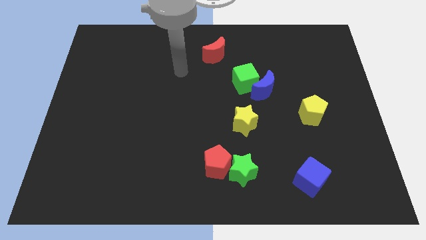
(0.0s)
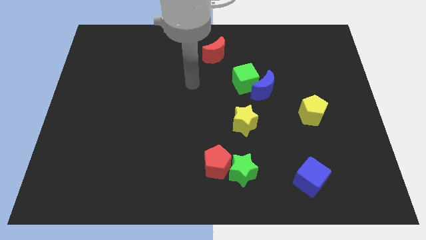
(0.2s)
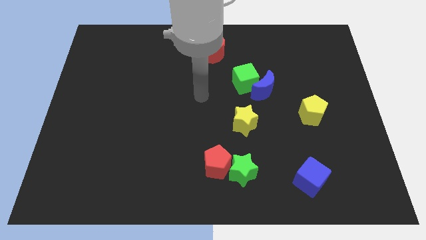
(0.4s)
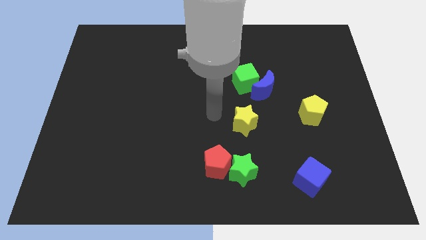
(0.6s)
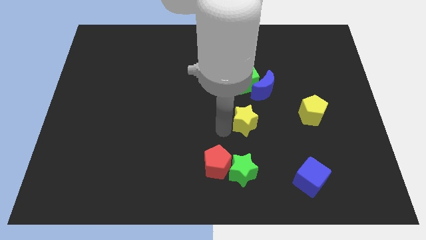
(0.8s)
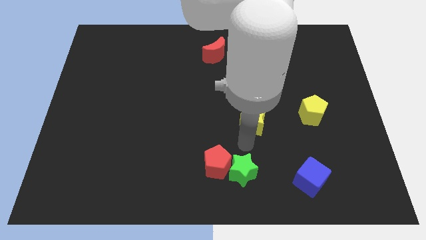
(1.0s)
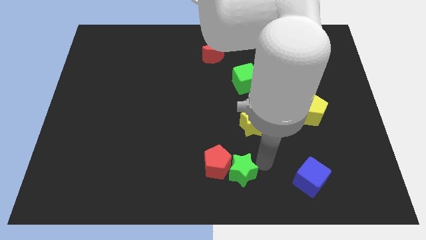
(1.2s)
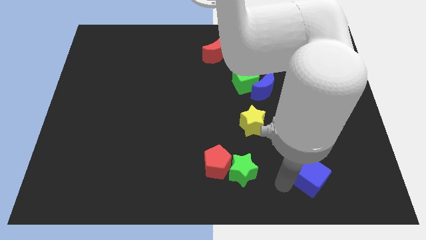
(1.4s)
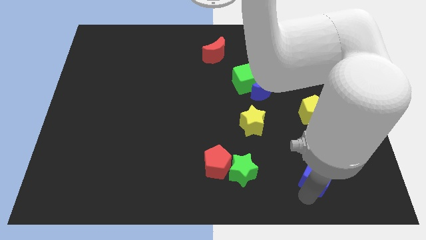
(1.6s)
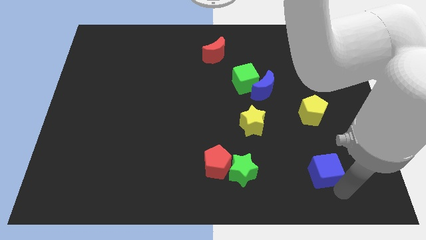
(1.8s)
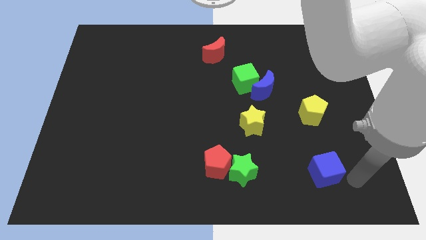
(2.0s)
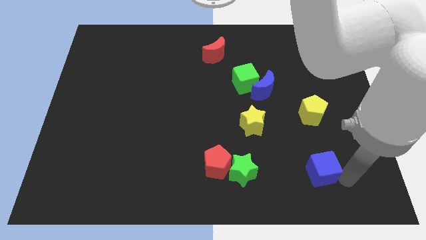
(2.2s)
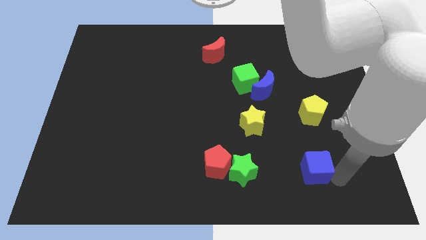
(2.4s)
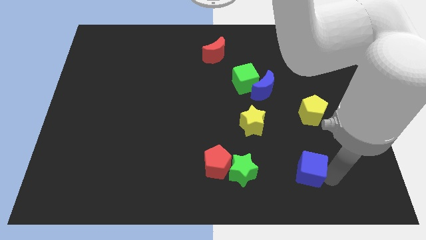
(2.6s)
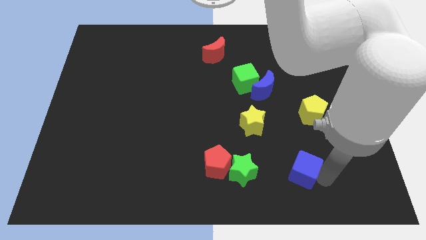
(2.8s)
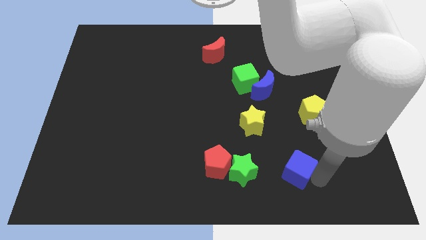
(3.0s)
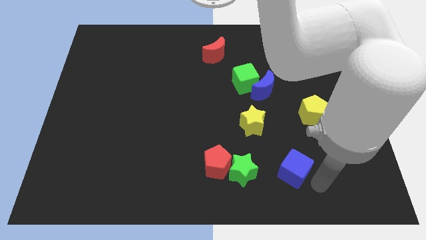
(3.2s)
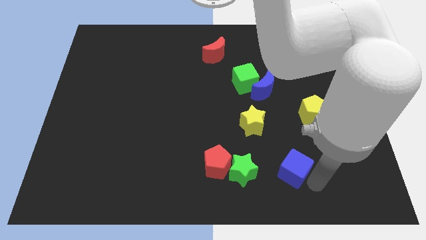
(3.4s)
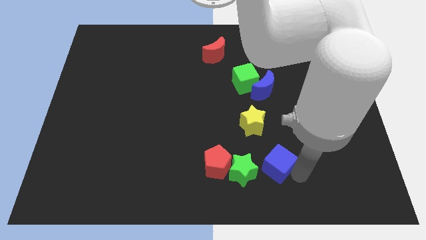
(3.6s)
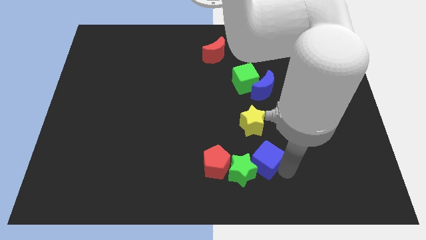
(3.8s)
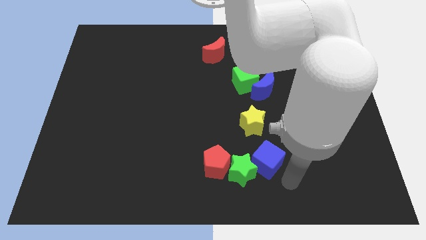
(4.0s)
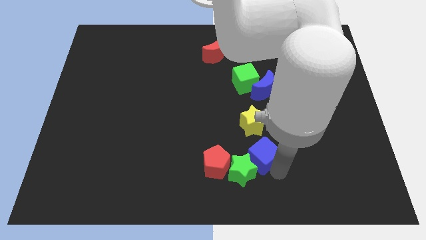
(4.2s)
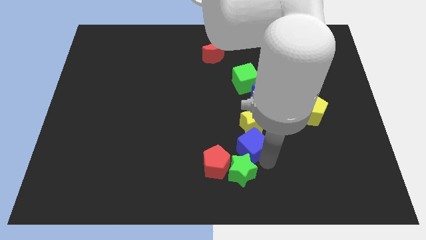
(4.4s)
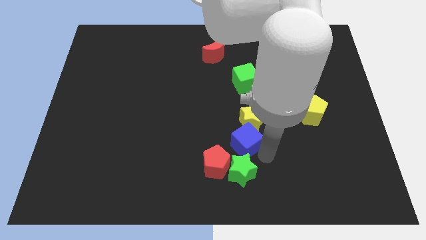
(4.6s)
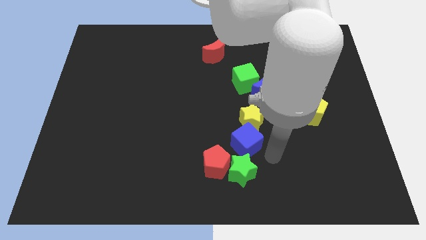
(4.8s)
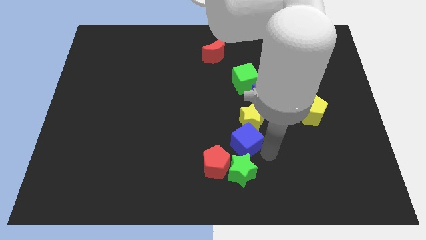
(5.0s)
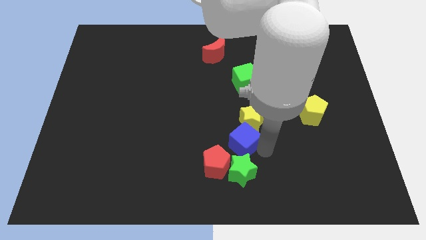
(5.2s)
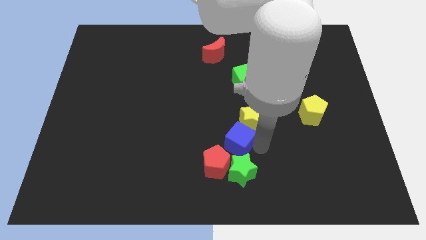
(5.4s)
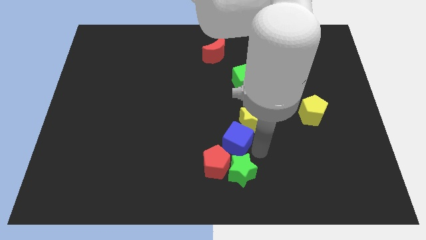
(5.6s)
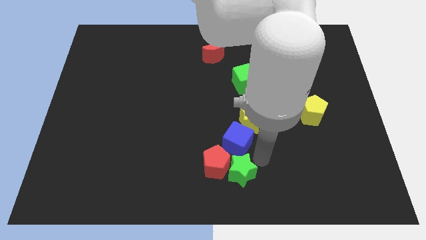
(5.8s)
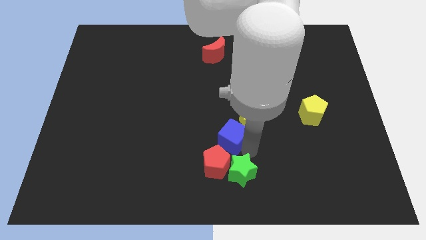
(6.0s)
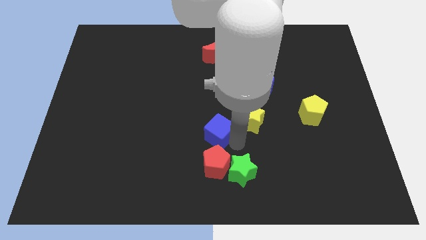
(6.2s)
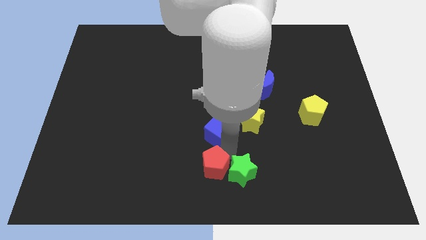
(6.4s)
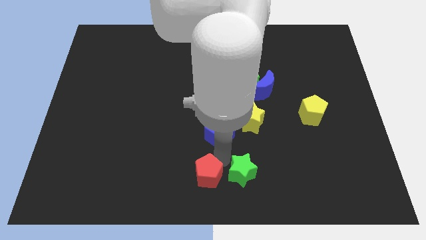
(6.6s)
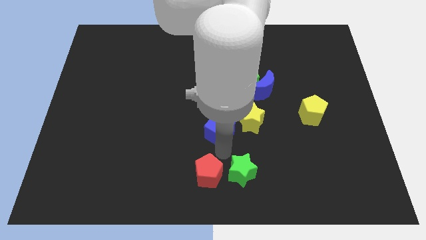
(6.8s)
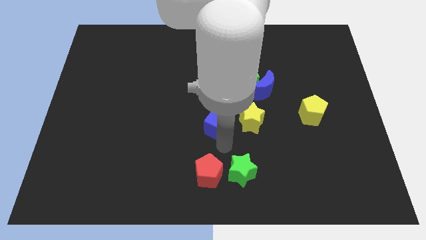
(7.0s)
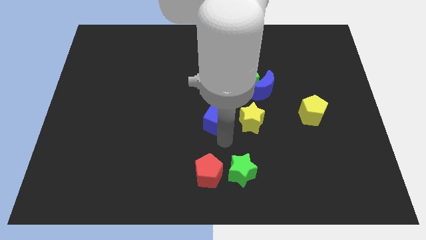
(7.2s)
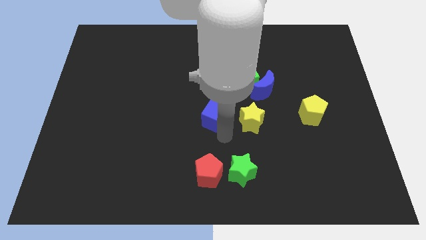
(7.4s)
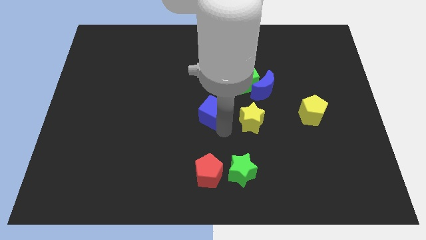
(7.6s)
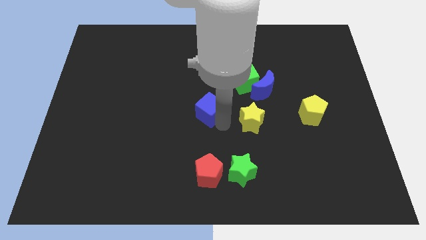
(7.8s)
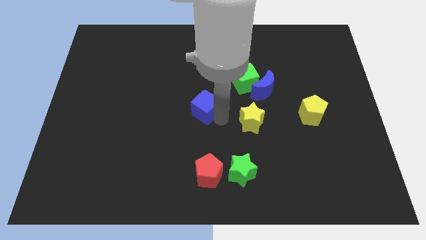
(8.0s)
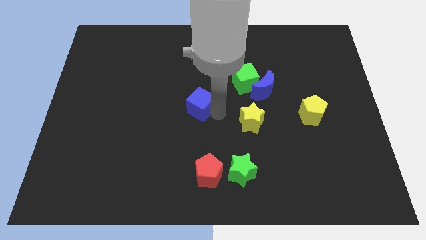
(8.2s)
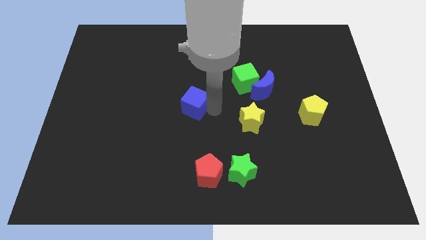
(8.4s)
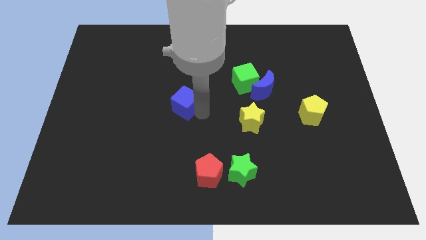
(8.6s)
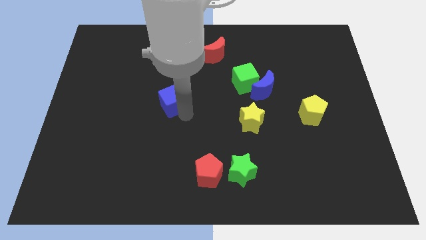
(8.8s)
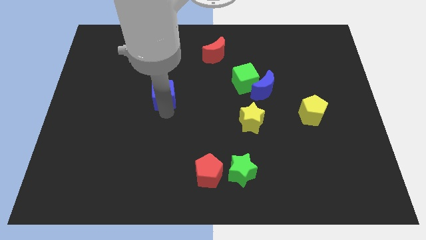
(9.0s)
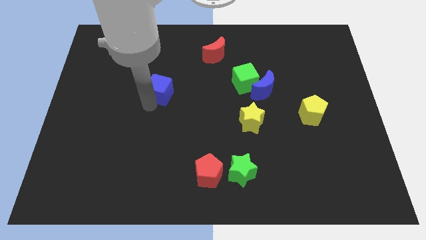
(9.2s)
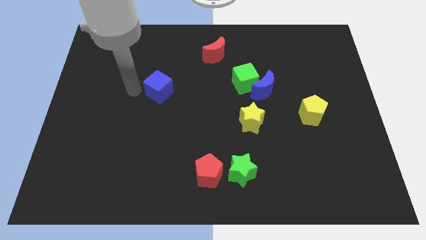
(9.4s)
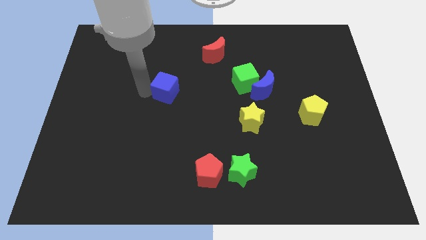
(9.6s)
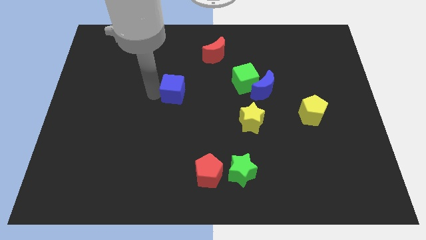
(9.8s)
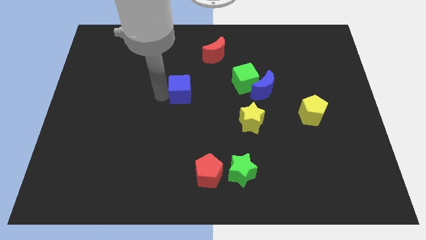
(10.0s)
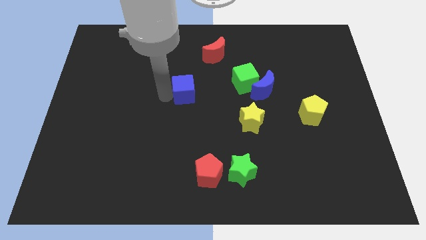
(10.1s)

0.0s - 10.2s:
push the blue cube to the left of the green cube

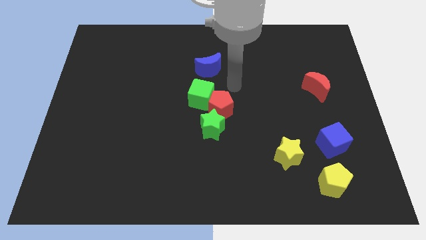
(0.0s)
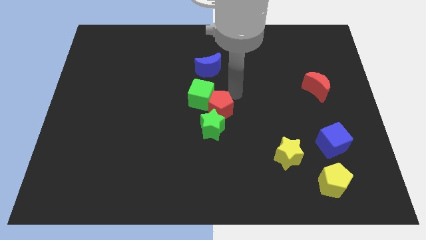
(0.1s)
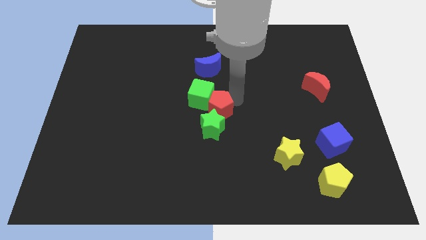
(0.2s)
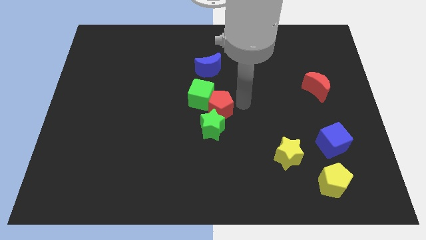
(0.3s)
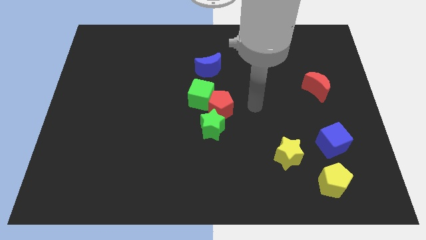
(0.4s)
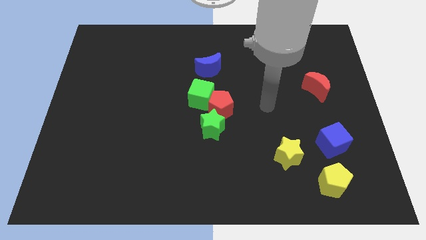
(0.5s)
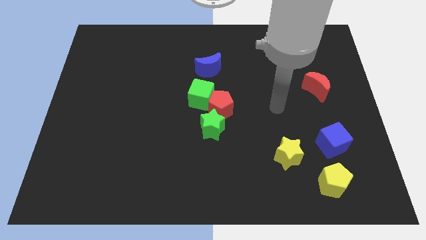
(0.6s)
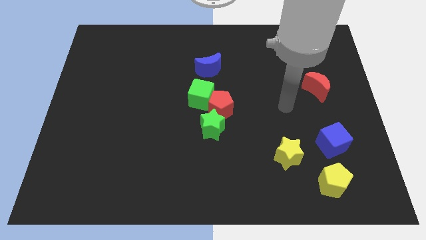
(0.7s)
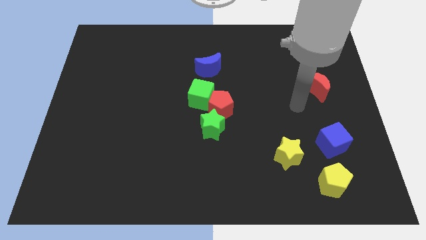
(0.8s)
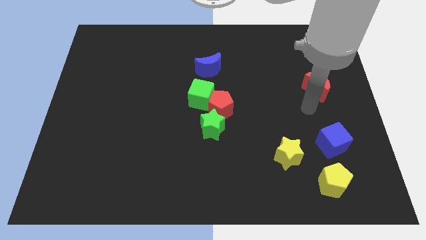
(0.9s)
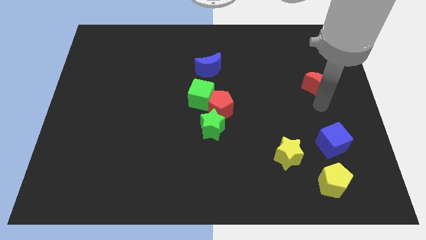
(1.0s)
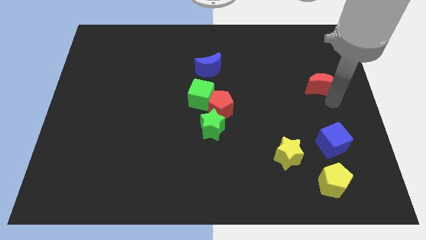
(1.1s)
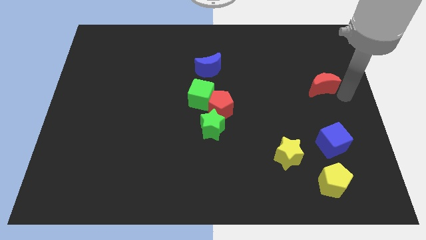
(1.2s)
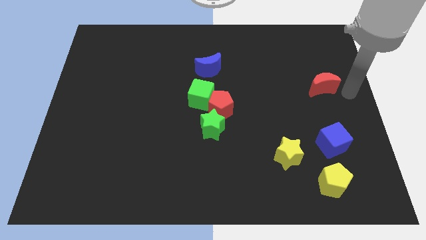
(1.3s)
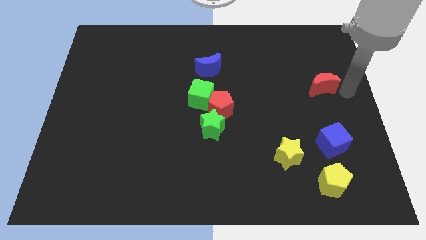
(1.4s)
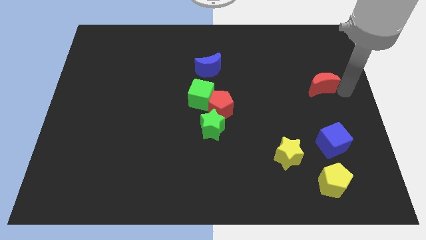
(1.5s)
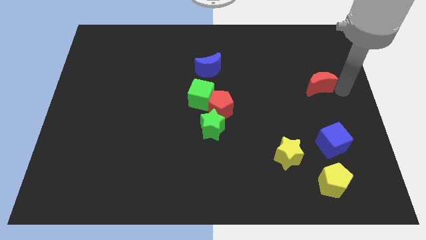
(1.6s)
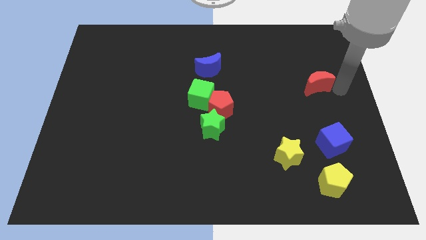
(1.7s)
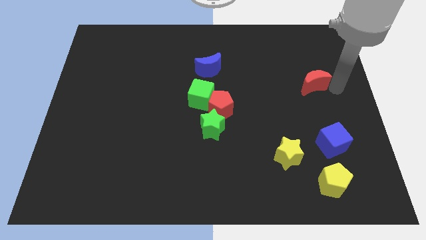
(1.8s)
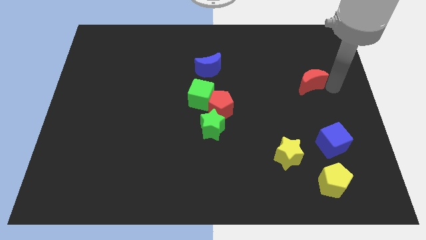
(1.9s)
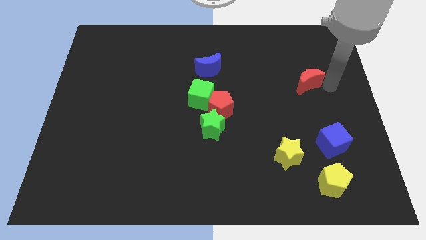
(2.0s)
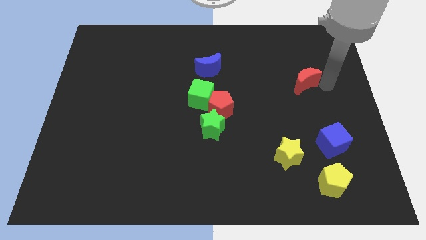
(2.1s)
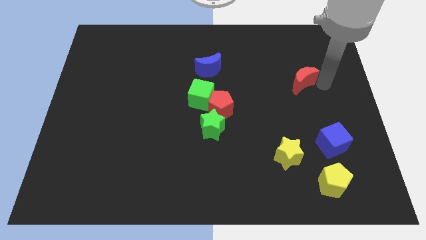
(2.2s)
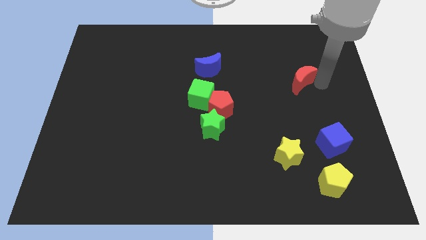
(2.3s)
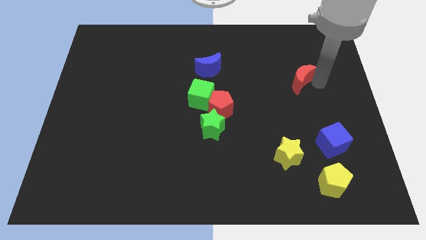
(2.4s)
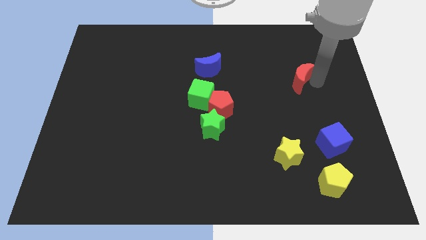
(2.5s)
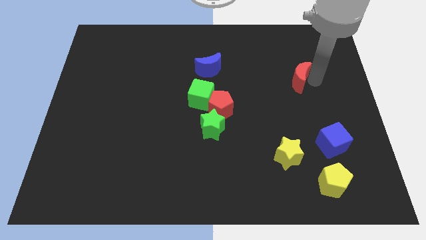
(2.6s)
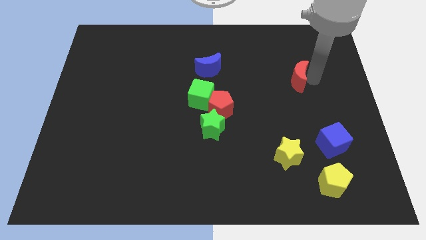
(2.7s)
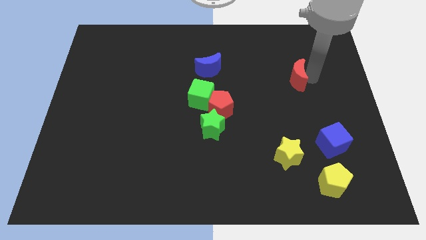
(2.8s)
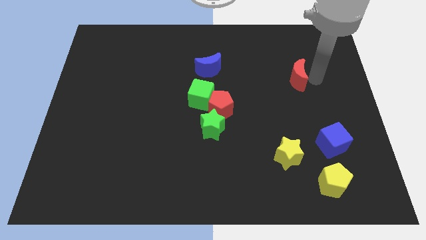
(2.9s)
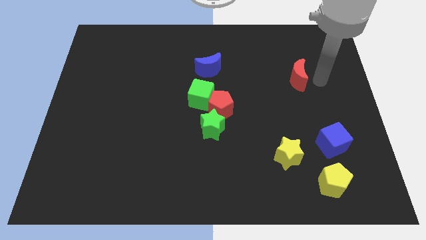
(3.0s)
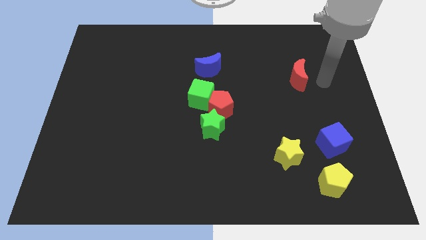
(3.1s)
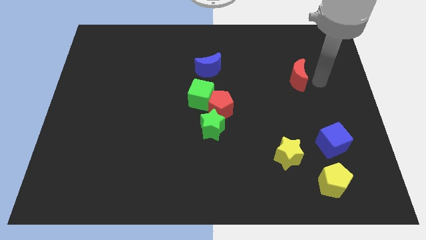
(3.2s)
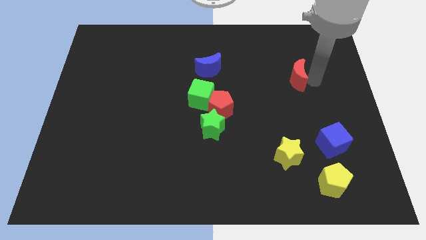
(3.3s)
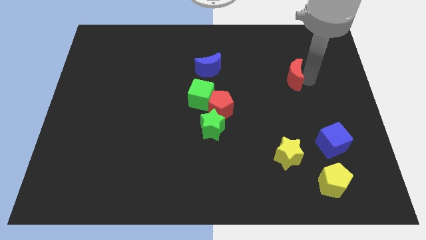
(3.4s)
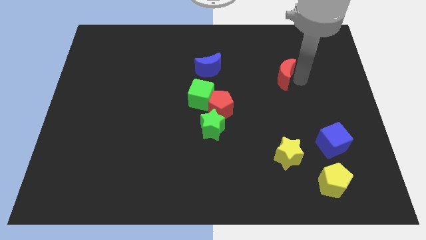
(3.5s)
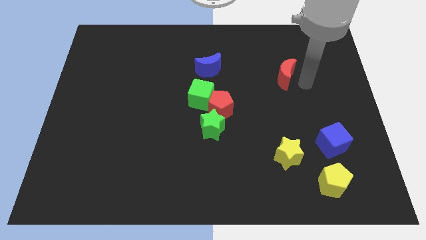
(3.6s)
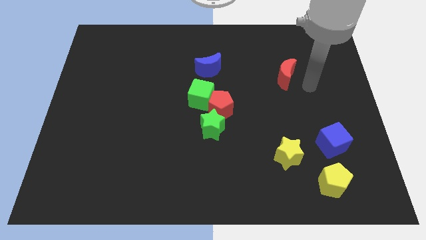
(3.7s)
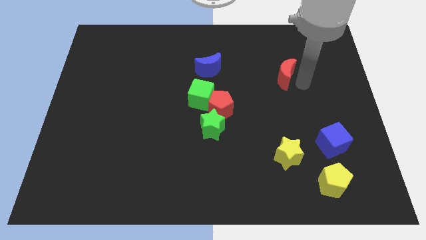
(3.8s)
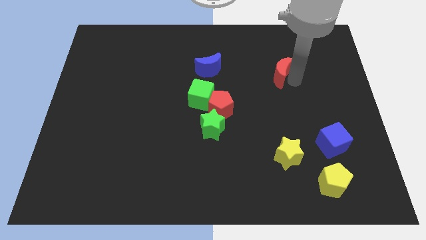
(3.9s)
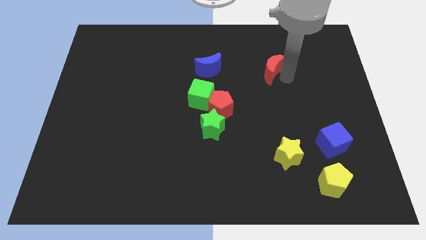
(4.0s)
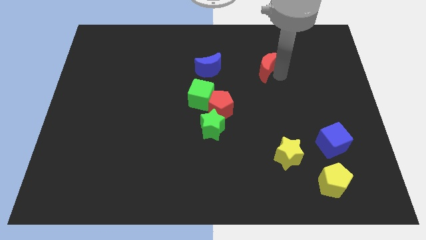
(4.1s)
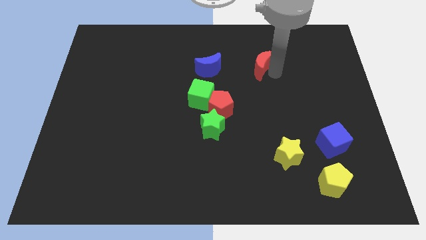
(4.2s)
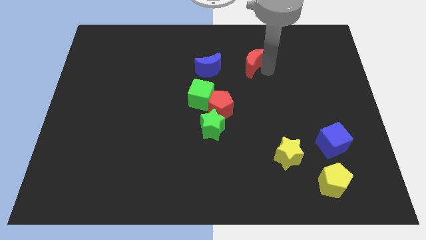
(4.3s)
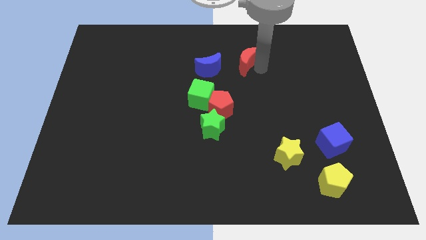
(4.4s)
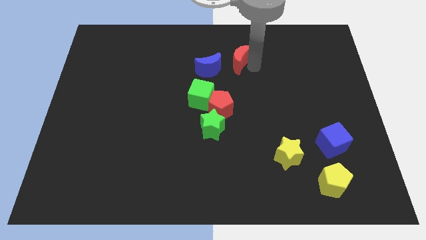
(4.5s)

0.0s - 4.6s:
move the red moon diagonally up and to the right of the blue moon
